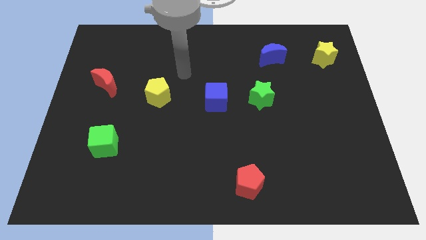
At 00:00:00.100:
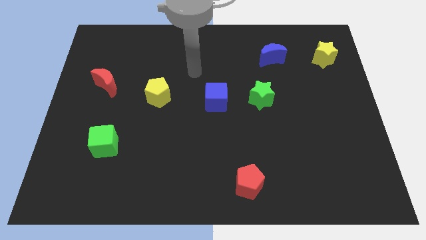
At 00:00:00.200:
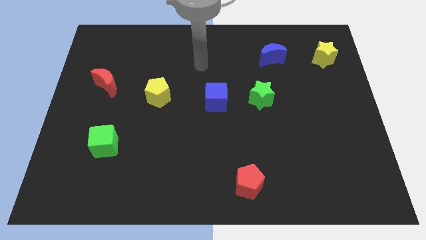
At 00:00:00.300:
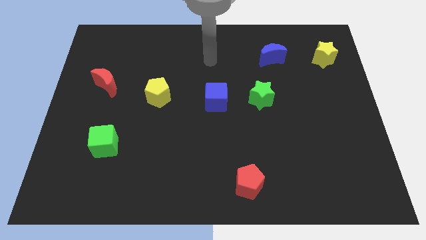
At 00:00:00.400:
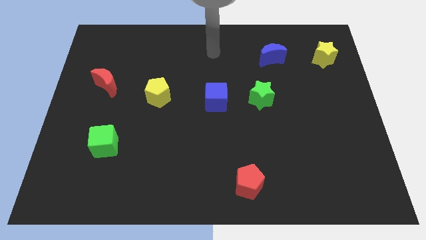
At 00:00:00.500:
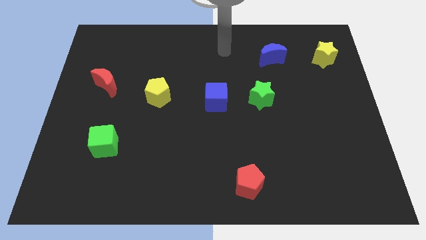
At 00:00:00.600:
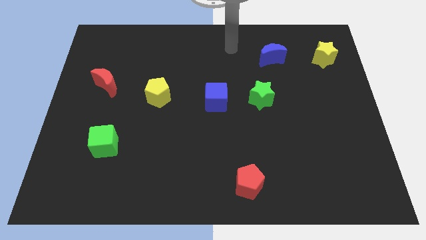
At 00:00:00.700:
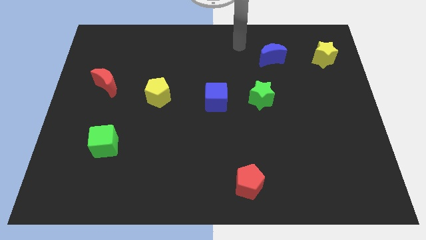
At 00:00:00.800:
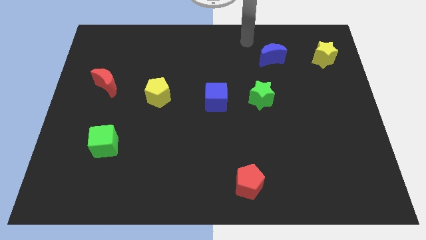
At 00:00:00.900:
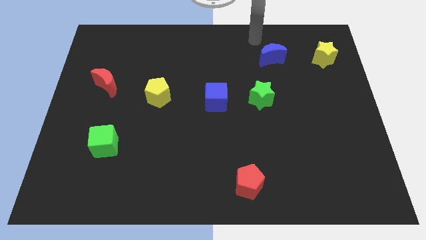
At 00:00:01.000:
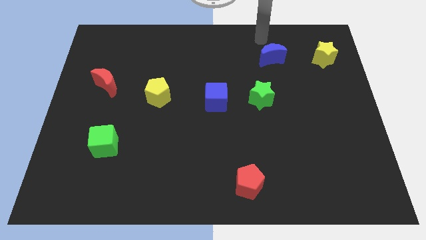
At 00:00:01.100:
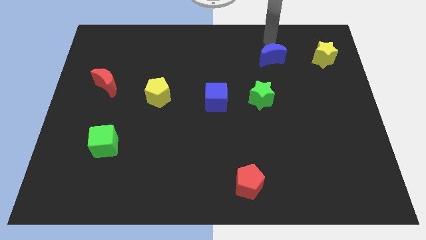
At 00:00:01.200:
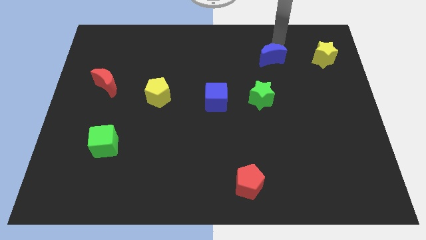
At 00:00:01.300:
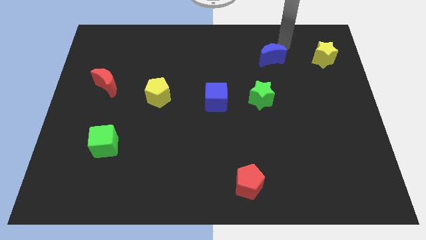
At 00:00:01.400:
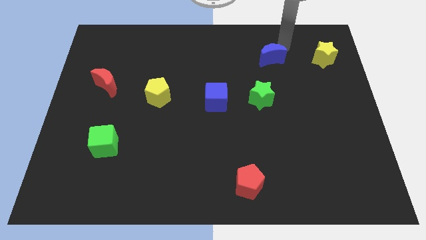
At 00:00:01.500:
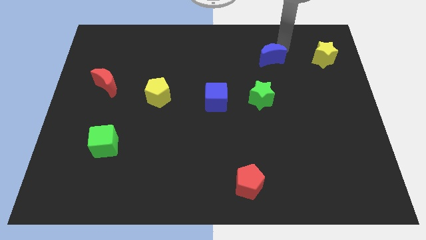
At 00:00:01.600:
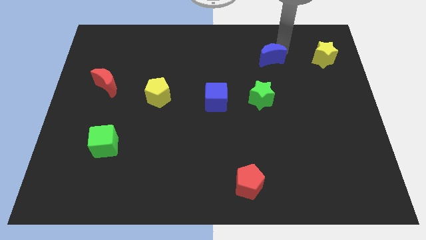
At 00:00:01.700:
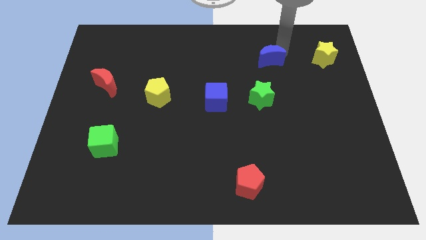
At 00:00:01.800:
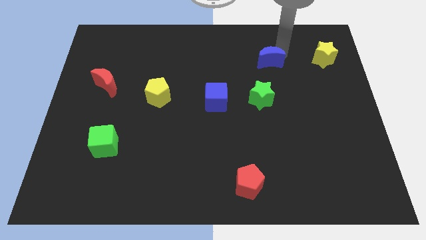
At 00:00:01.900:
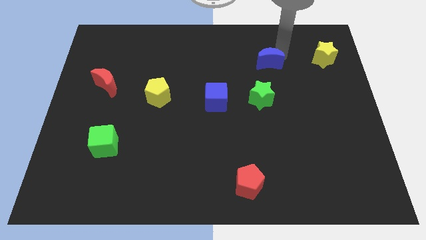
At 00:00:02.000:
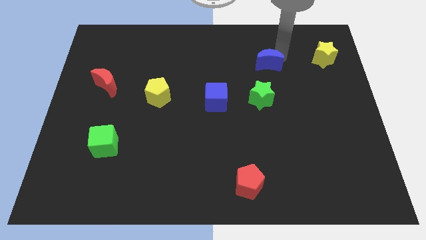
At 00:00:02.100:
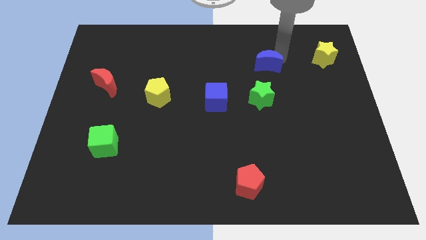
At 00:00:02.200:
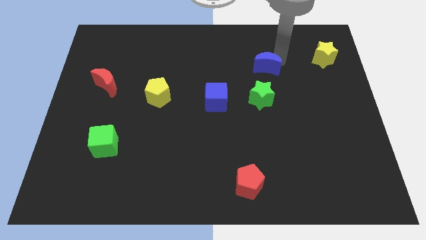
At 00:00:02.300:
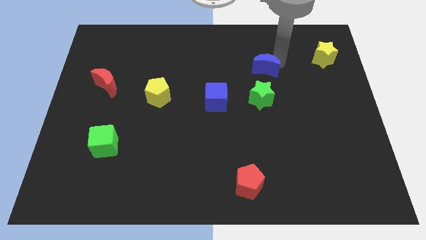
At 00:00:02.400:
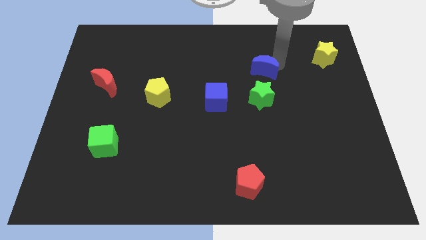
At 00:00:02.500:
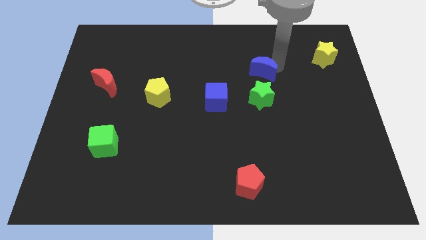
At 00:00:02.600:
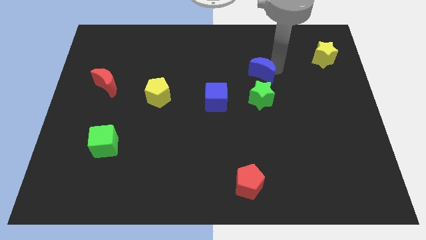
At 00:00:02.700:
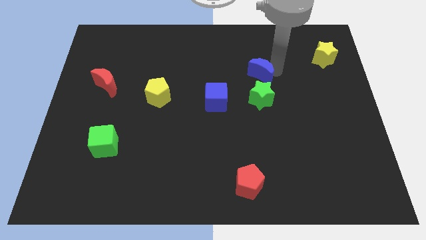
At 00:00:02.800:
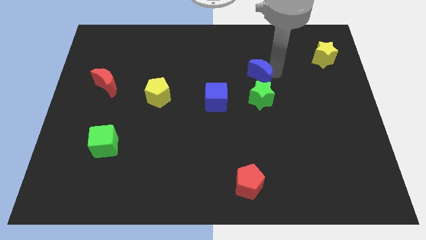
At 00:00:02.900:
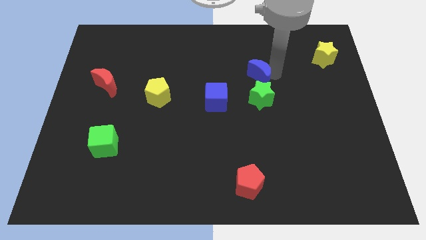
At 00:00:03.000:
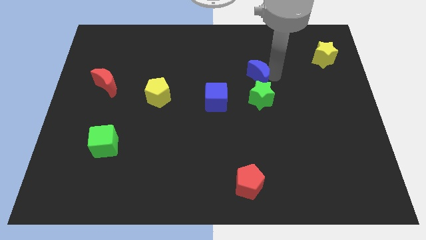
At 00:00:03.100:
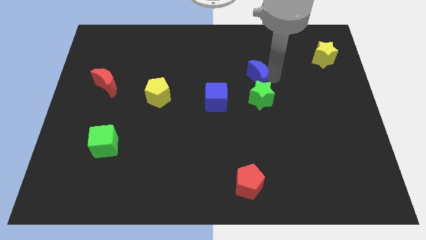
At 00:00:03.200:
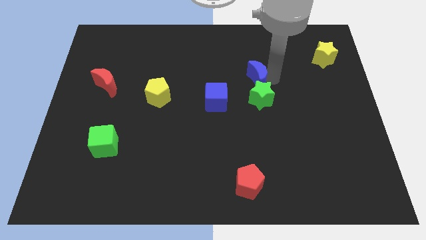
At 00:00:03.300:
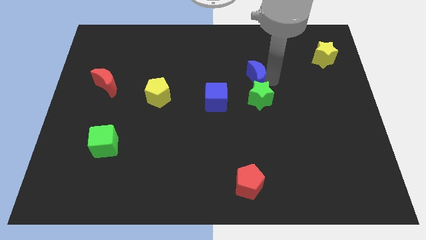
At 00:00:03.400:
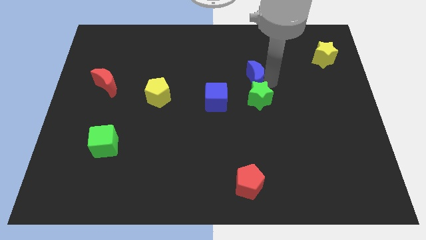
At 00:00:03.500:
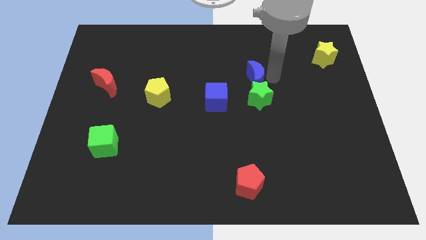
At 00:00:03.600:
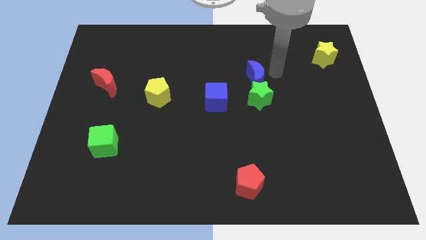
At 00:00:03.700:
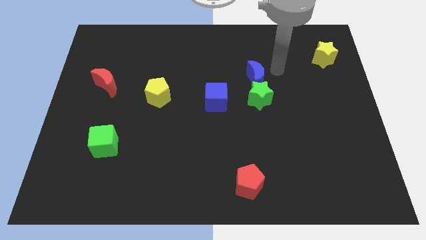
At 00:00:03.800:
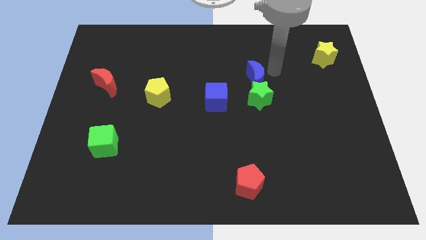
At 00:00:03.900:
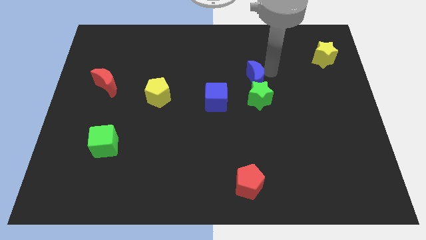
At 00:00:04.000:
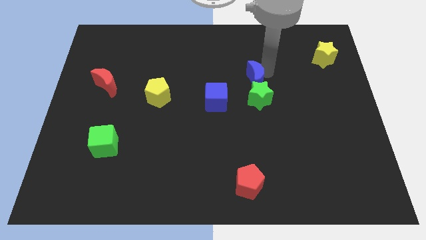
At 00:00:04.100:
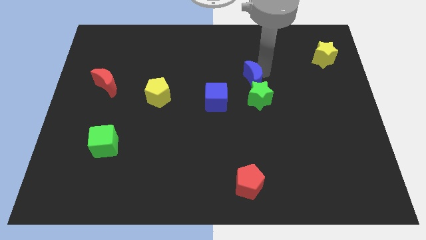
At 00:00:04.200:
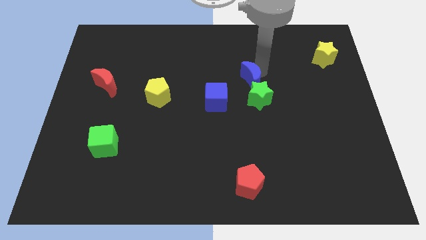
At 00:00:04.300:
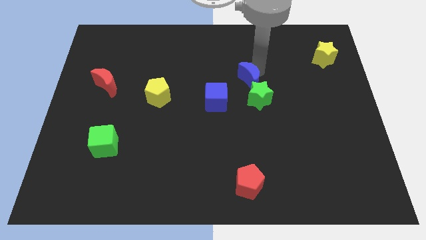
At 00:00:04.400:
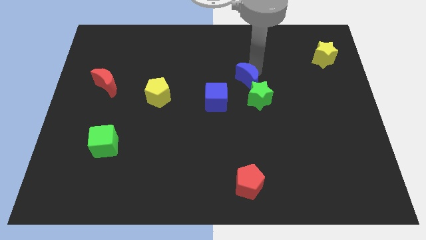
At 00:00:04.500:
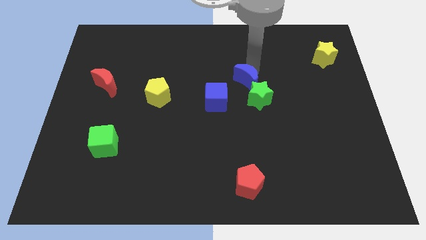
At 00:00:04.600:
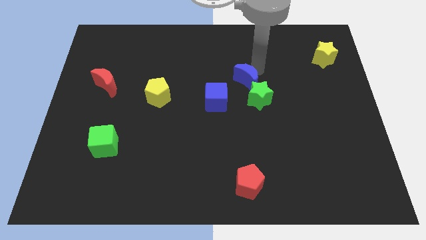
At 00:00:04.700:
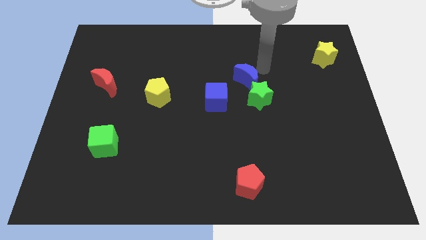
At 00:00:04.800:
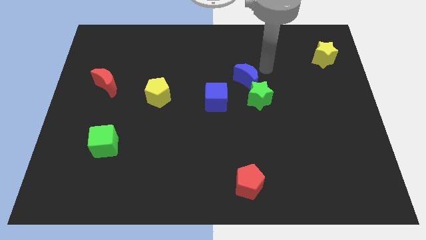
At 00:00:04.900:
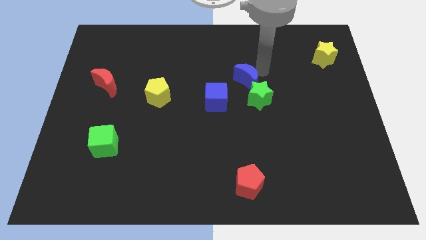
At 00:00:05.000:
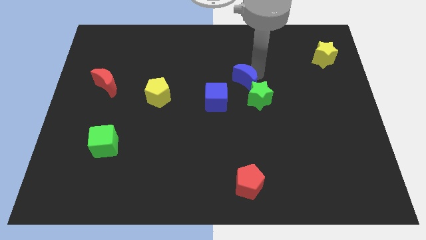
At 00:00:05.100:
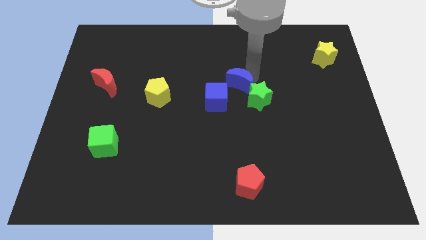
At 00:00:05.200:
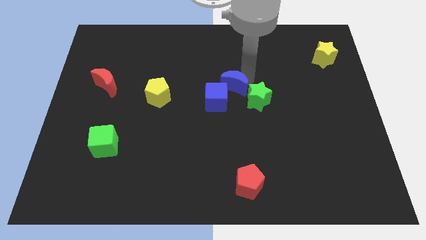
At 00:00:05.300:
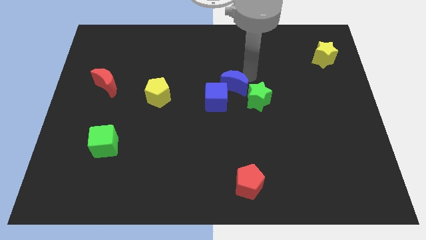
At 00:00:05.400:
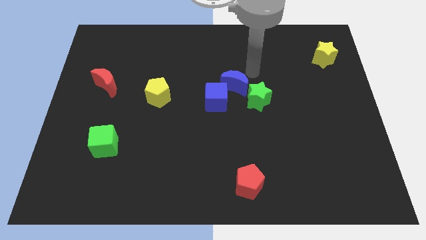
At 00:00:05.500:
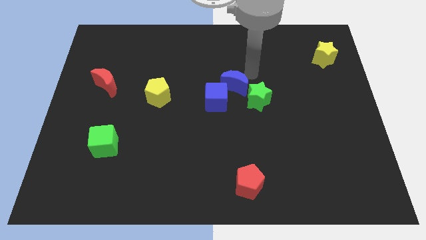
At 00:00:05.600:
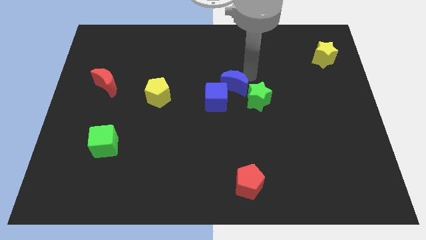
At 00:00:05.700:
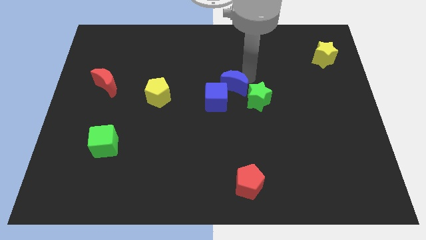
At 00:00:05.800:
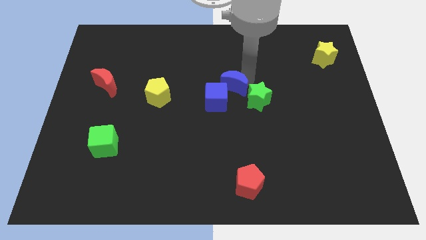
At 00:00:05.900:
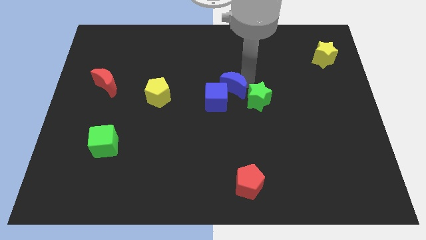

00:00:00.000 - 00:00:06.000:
push the blue moon close to the blue cube

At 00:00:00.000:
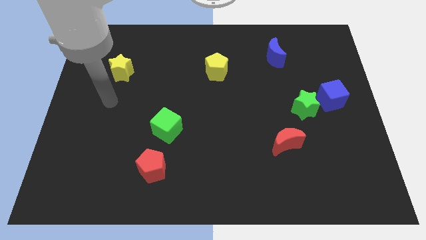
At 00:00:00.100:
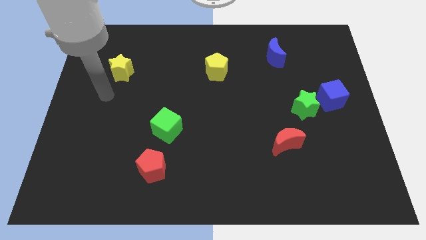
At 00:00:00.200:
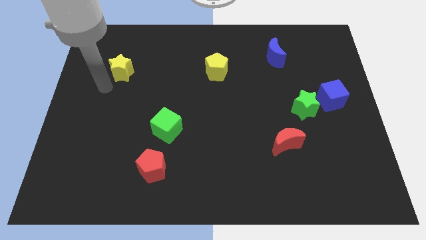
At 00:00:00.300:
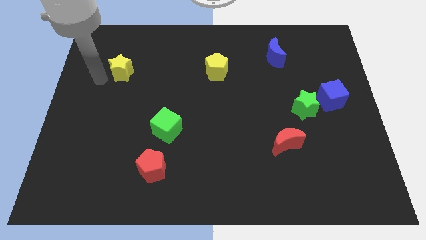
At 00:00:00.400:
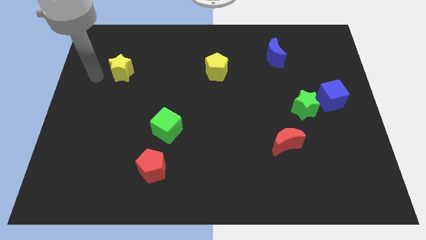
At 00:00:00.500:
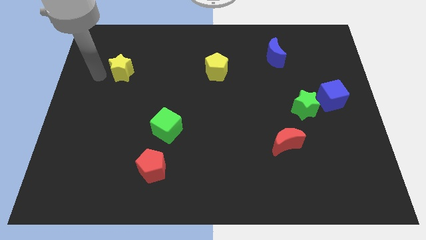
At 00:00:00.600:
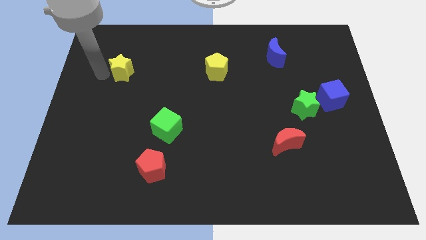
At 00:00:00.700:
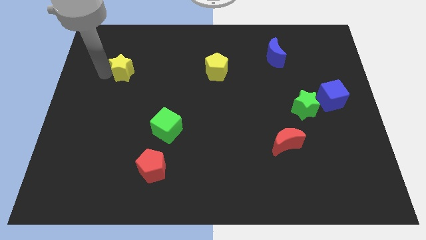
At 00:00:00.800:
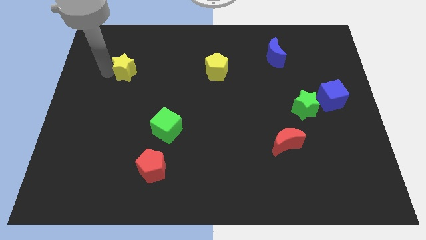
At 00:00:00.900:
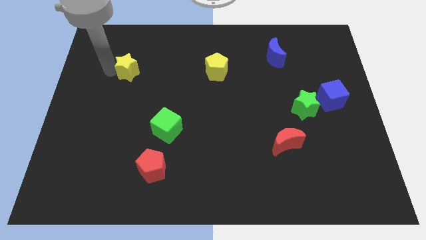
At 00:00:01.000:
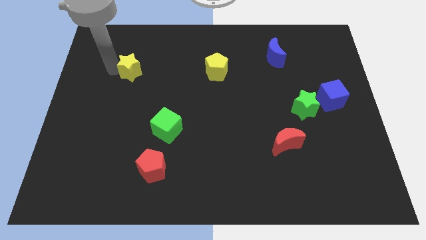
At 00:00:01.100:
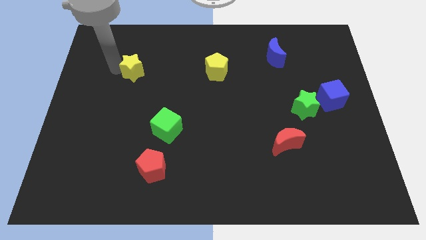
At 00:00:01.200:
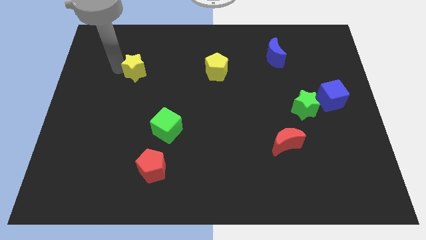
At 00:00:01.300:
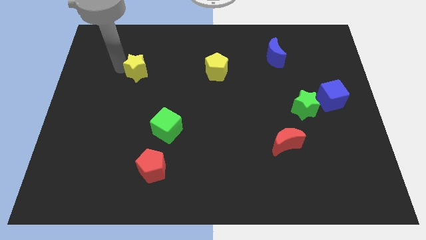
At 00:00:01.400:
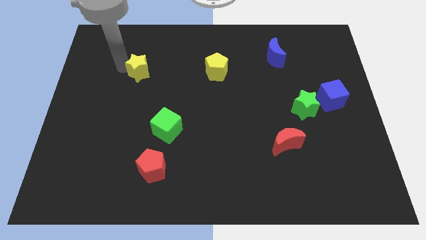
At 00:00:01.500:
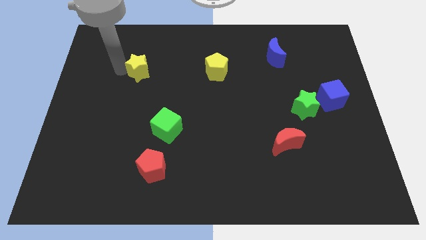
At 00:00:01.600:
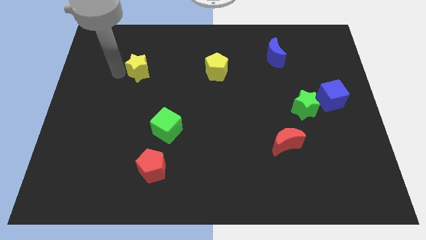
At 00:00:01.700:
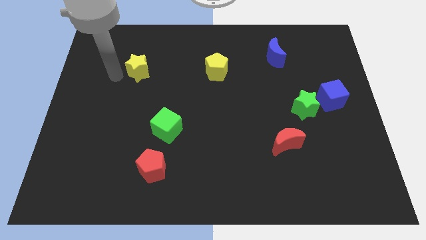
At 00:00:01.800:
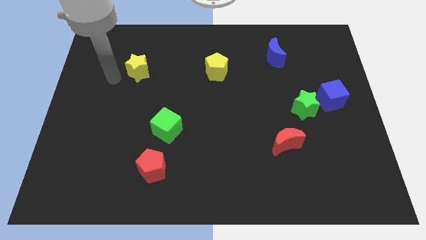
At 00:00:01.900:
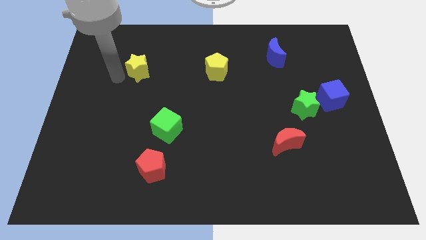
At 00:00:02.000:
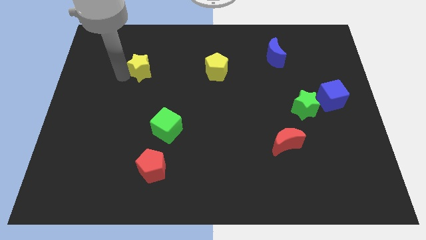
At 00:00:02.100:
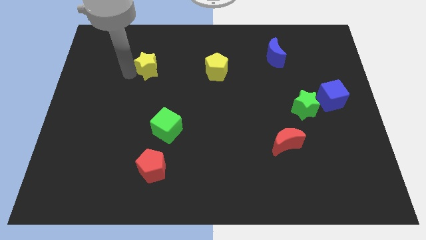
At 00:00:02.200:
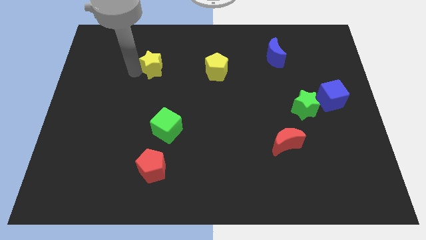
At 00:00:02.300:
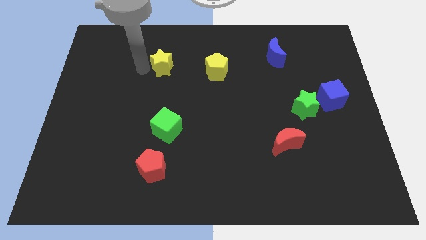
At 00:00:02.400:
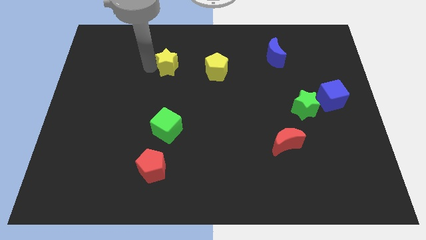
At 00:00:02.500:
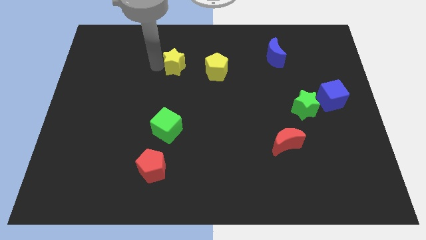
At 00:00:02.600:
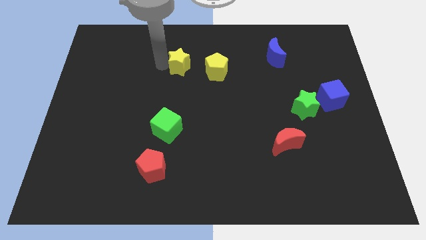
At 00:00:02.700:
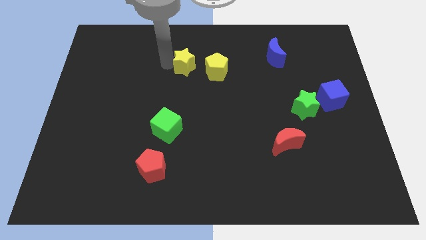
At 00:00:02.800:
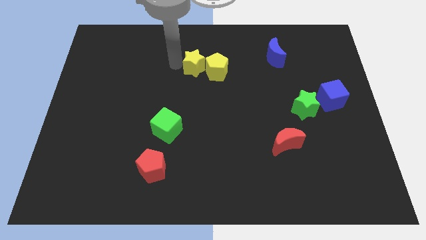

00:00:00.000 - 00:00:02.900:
slide the yellow star towards the yellow pentagon
